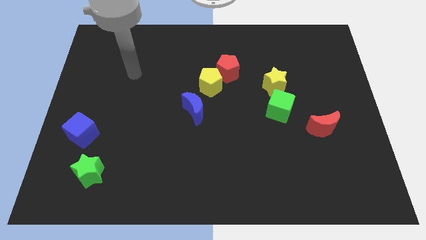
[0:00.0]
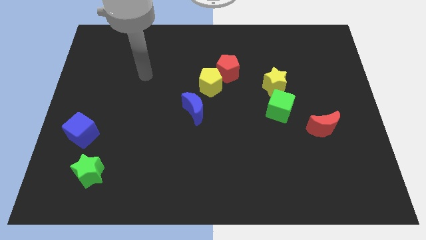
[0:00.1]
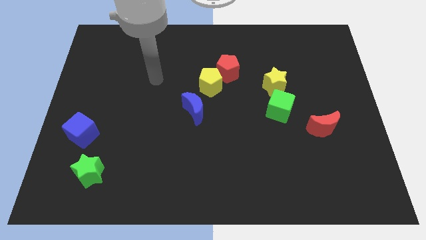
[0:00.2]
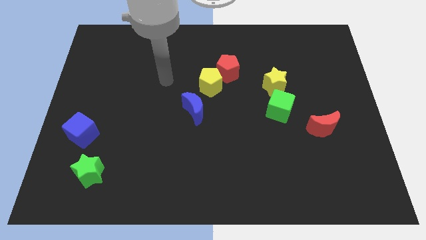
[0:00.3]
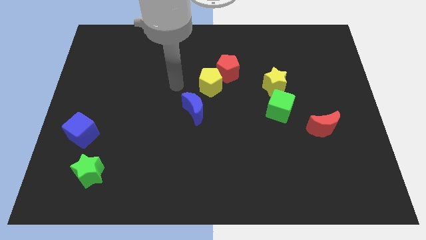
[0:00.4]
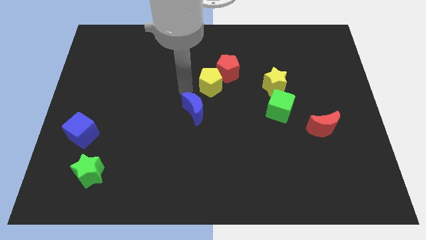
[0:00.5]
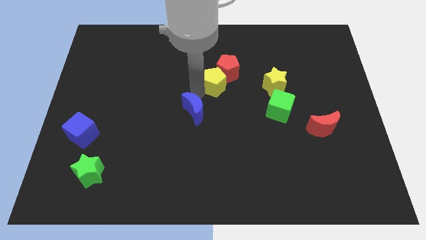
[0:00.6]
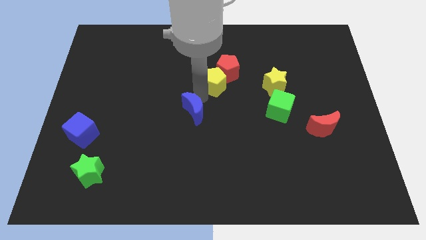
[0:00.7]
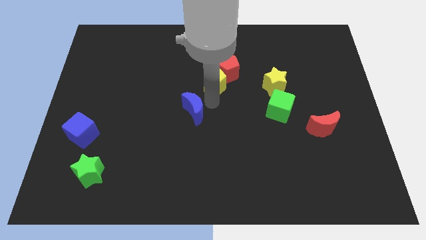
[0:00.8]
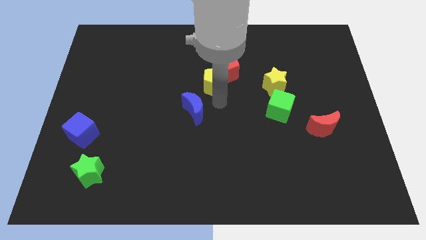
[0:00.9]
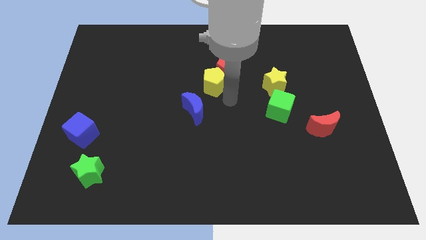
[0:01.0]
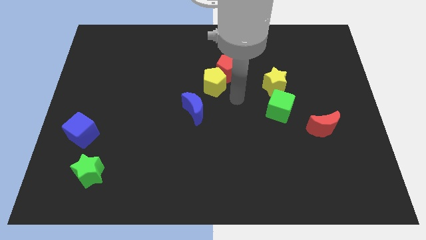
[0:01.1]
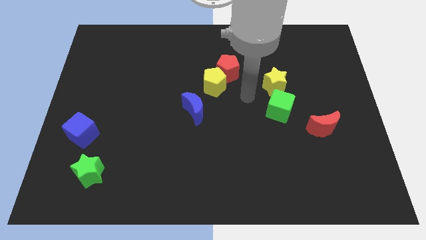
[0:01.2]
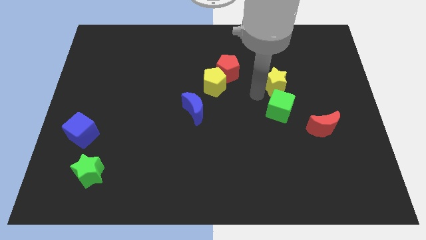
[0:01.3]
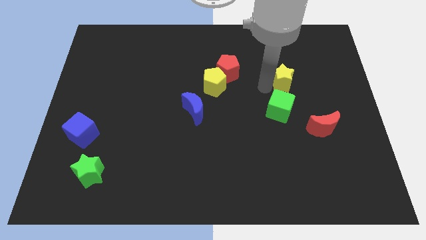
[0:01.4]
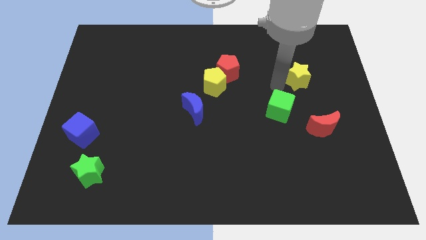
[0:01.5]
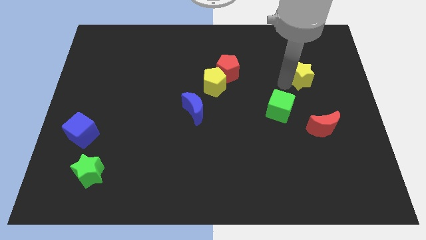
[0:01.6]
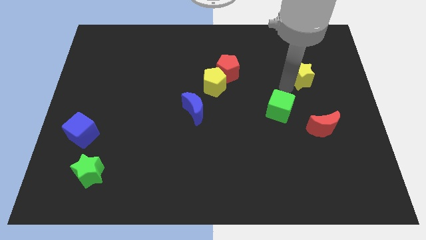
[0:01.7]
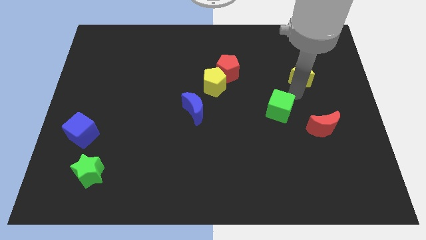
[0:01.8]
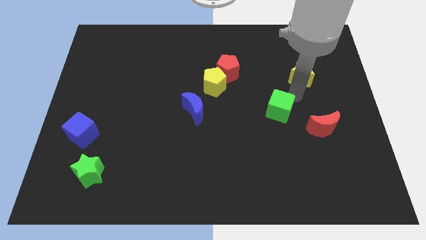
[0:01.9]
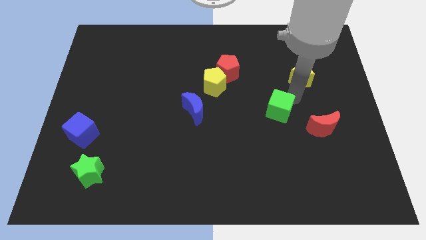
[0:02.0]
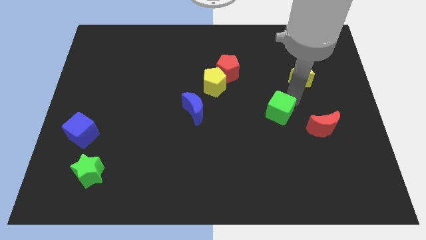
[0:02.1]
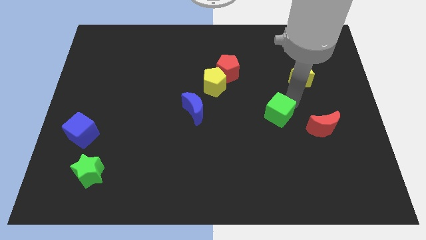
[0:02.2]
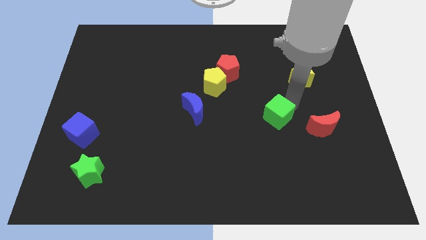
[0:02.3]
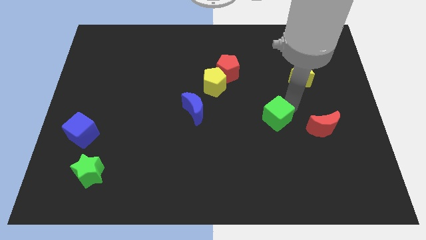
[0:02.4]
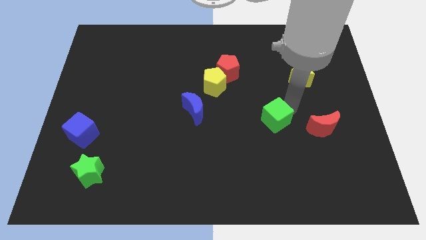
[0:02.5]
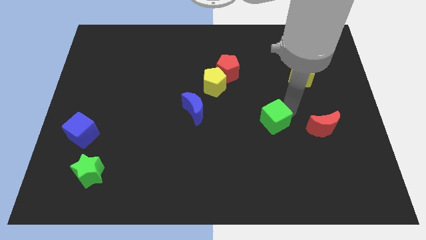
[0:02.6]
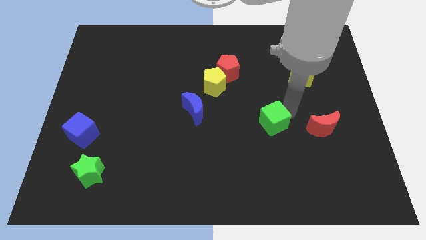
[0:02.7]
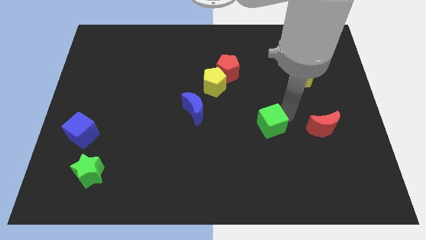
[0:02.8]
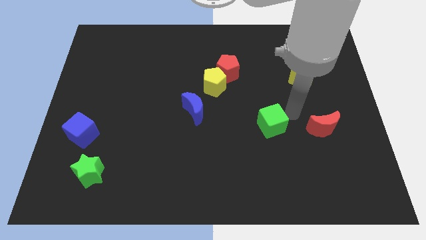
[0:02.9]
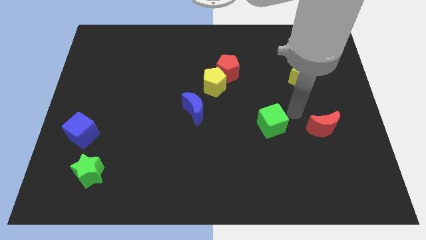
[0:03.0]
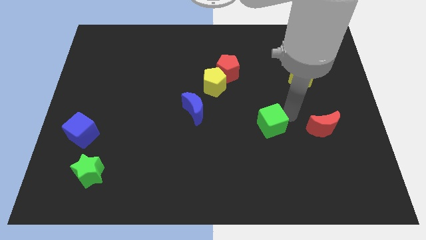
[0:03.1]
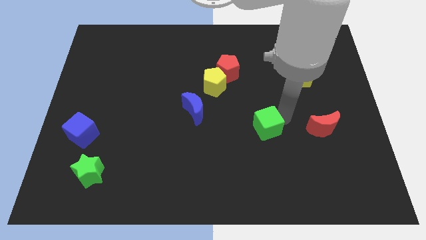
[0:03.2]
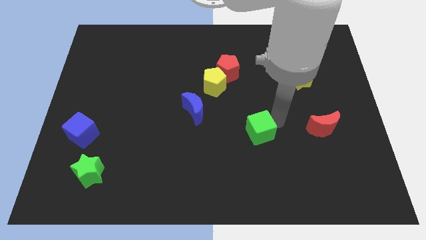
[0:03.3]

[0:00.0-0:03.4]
slightly slide the green cube diagonally downwards and to the left

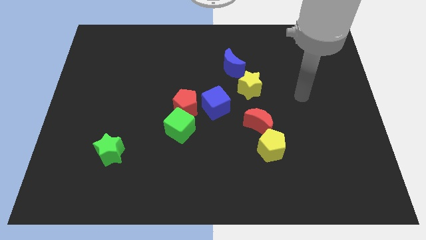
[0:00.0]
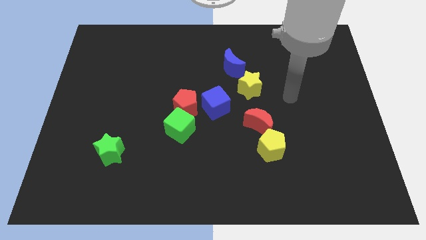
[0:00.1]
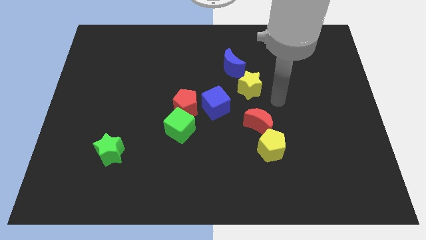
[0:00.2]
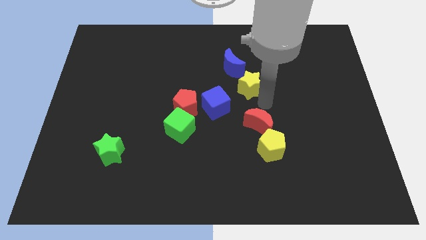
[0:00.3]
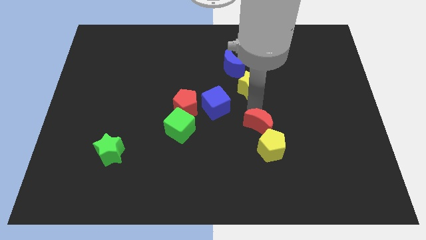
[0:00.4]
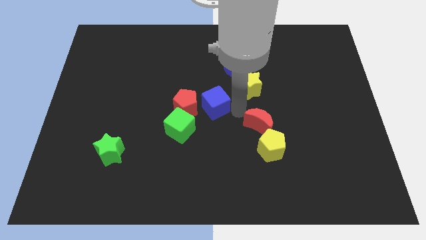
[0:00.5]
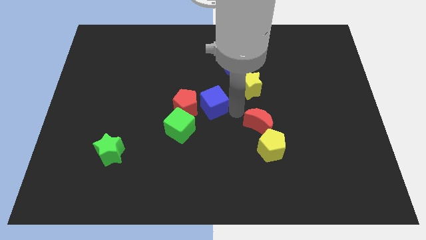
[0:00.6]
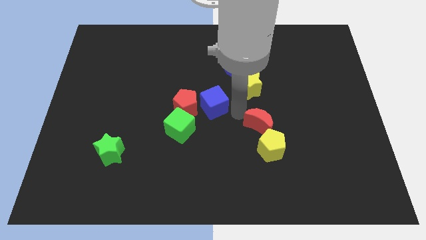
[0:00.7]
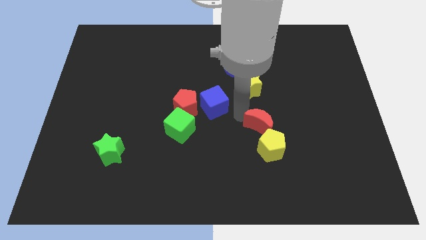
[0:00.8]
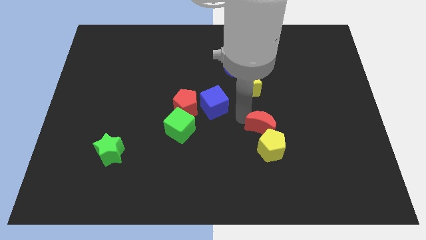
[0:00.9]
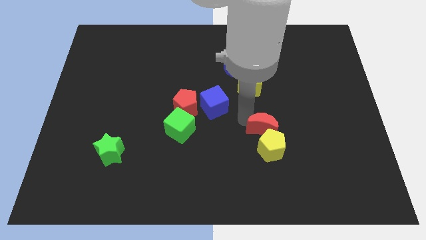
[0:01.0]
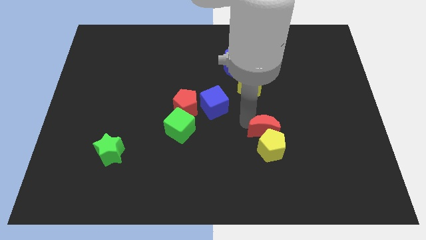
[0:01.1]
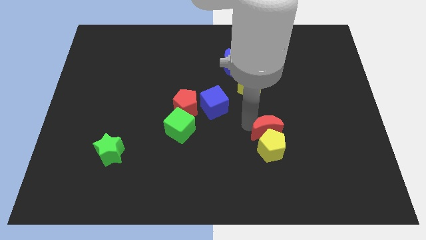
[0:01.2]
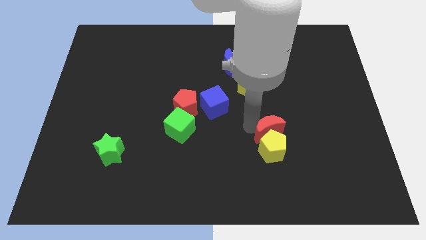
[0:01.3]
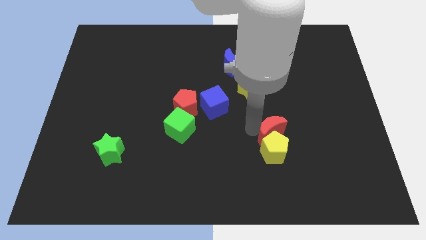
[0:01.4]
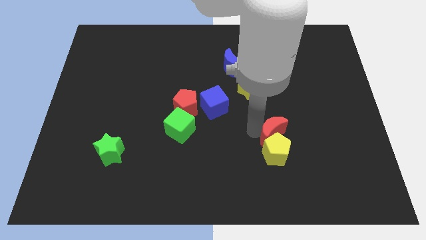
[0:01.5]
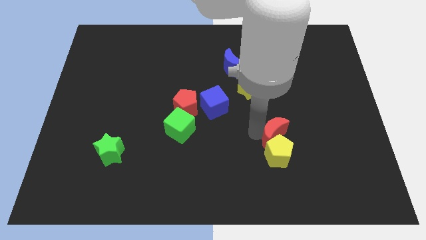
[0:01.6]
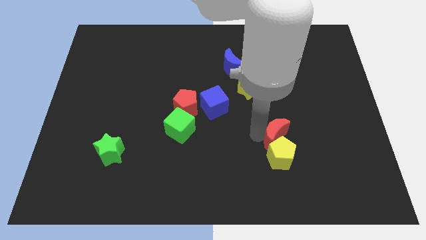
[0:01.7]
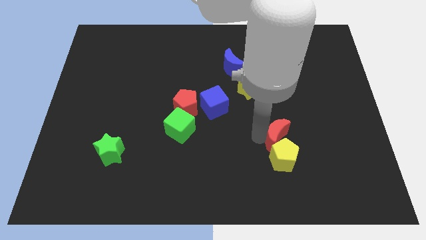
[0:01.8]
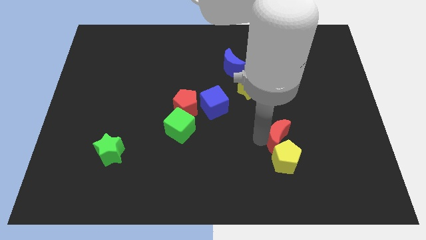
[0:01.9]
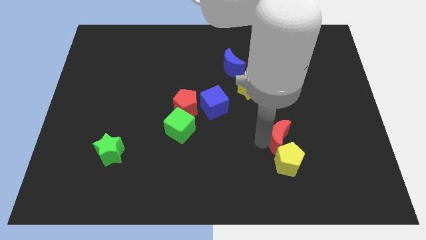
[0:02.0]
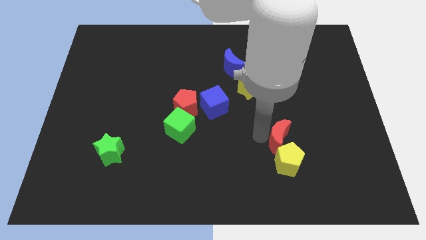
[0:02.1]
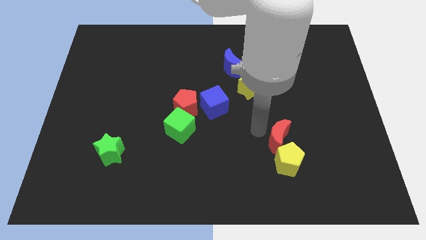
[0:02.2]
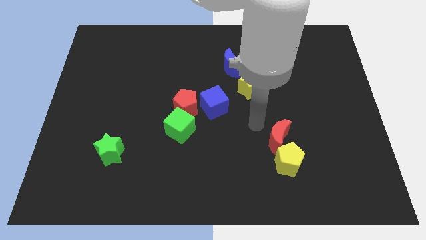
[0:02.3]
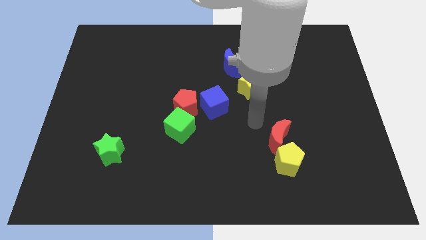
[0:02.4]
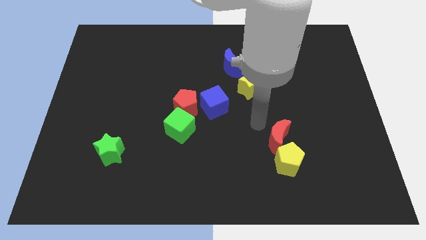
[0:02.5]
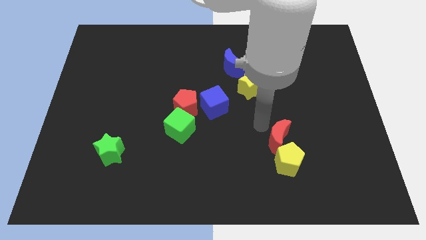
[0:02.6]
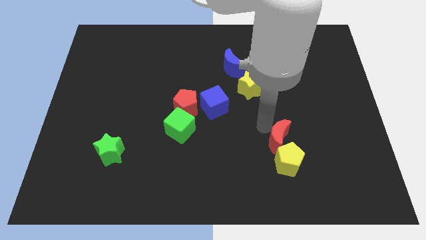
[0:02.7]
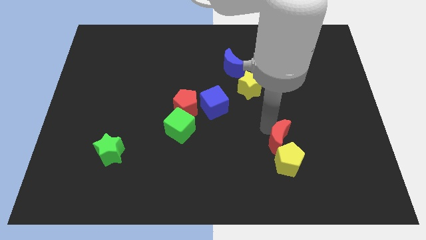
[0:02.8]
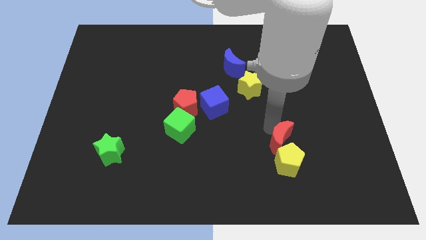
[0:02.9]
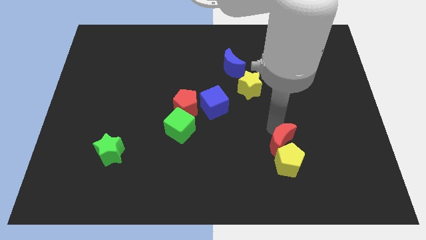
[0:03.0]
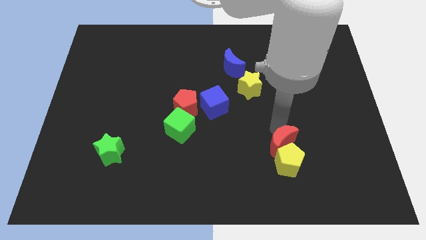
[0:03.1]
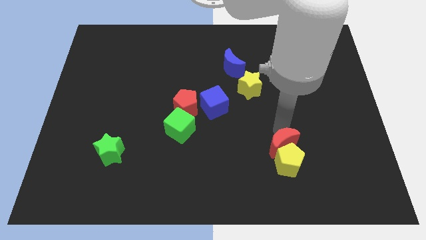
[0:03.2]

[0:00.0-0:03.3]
slide the red moon a little bit diagonally down and right

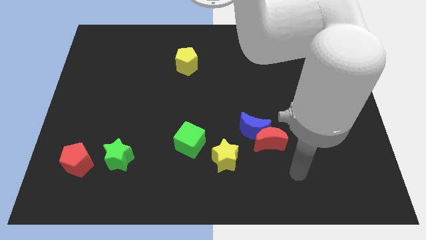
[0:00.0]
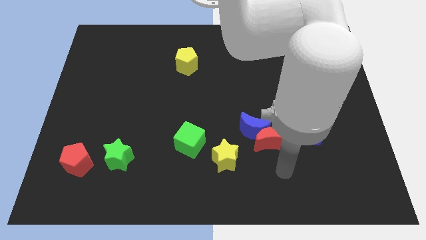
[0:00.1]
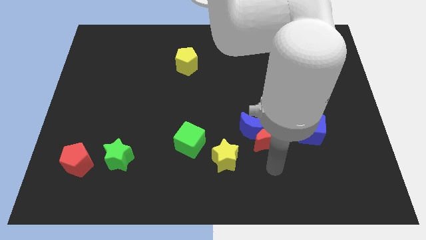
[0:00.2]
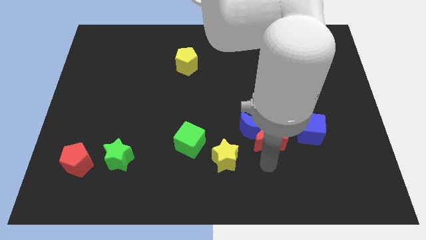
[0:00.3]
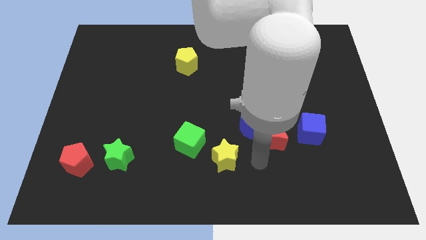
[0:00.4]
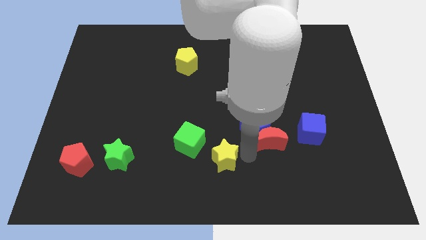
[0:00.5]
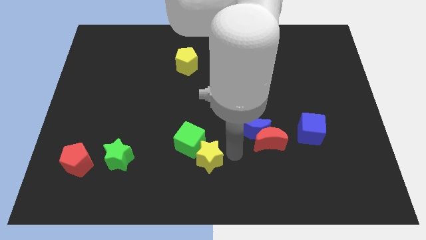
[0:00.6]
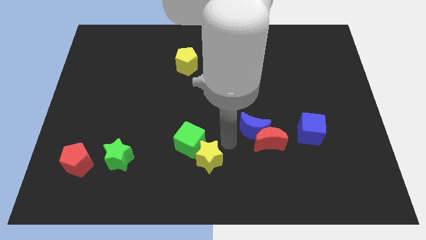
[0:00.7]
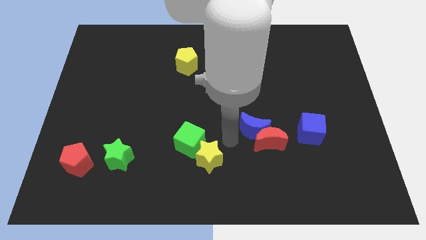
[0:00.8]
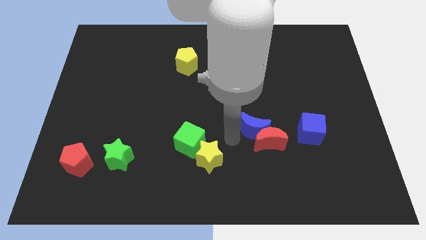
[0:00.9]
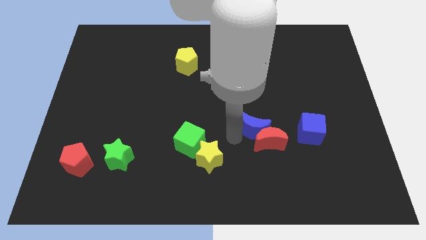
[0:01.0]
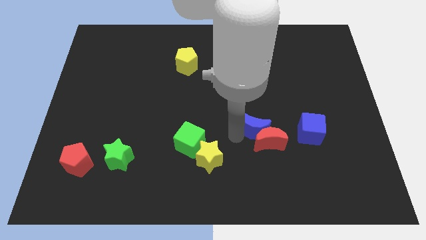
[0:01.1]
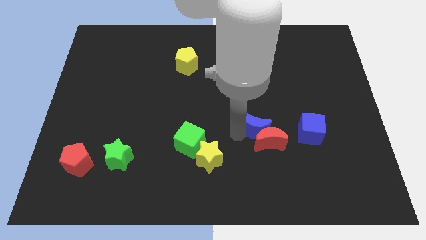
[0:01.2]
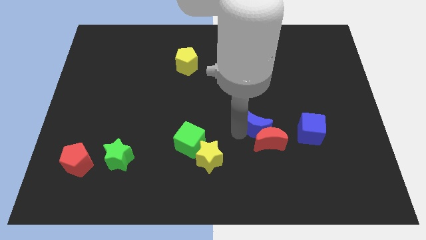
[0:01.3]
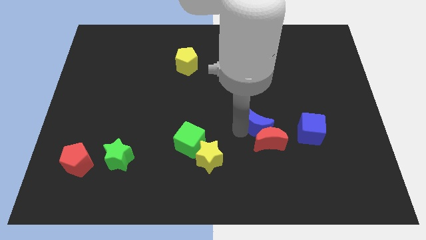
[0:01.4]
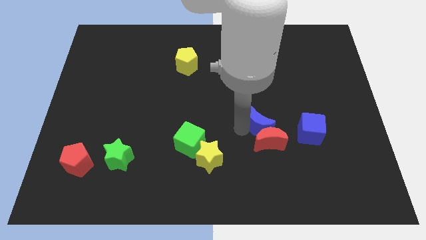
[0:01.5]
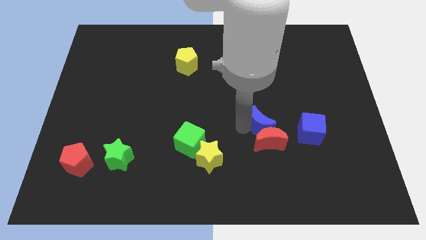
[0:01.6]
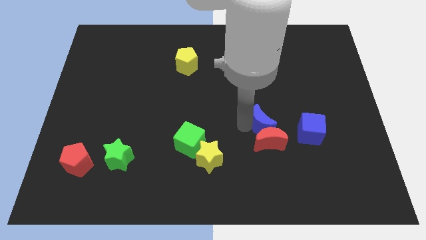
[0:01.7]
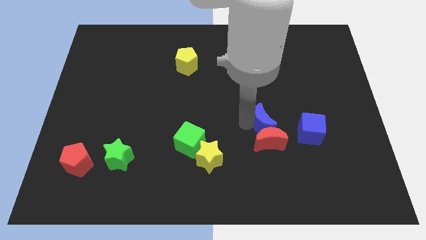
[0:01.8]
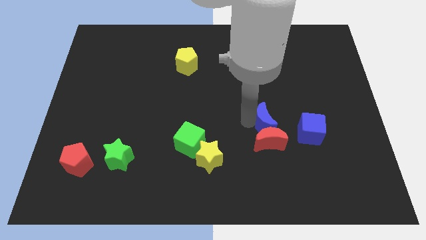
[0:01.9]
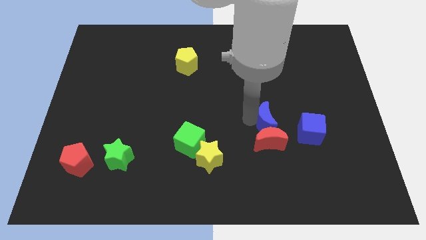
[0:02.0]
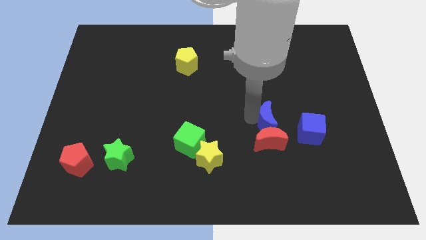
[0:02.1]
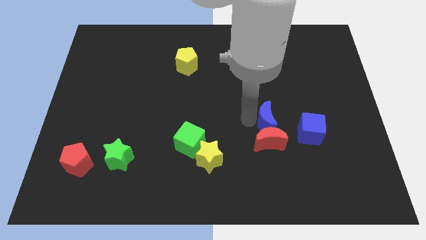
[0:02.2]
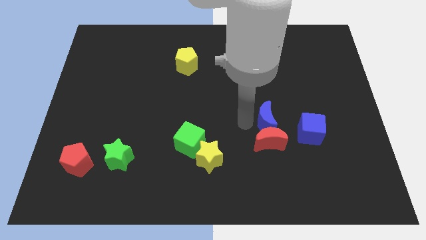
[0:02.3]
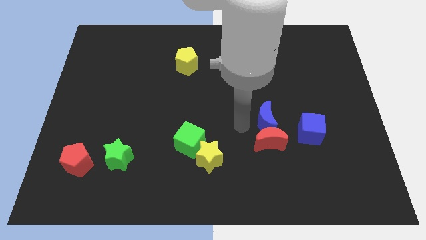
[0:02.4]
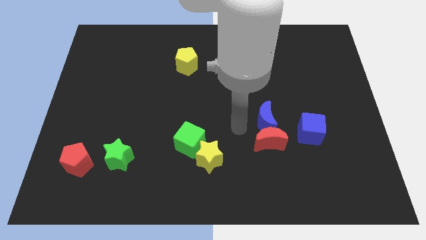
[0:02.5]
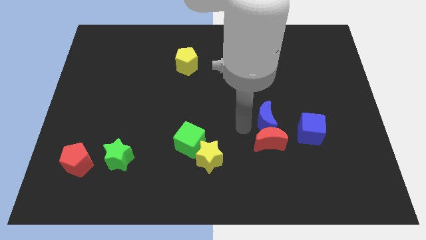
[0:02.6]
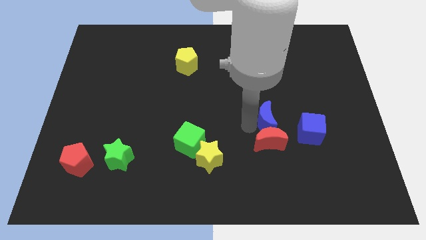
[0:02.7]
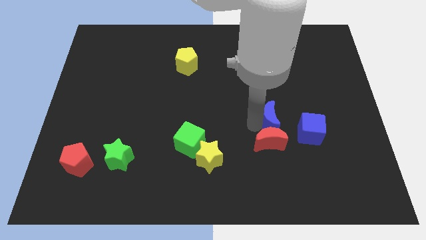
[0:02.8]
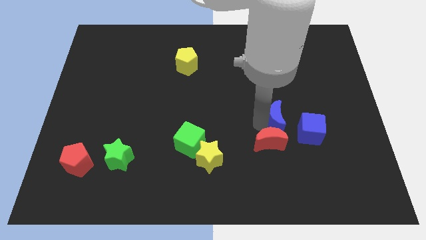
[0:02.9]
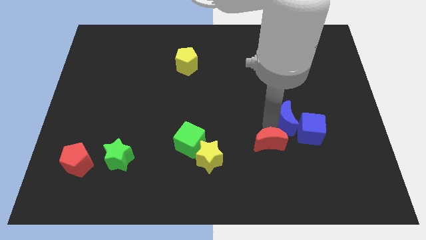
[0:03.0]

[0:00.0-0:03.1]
move the blue moon up and to the right a bit
